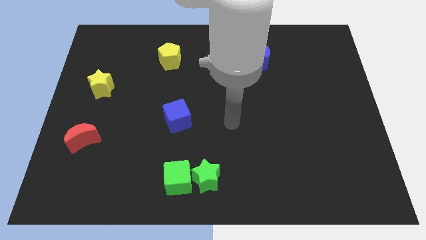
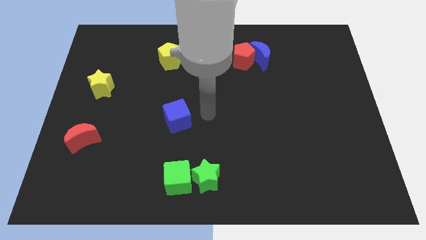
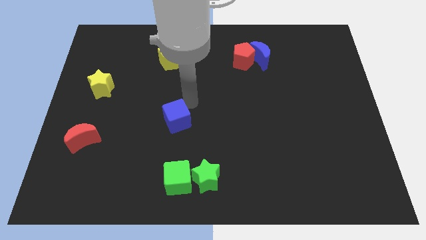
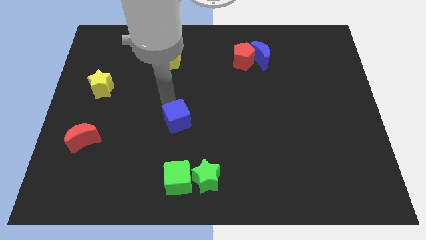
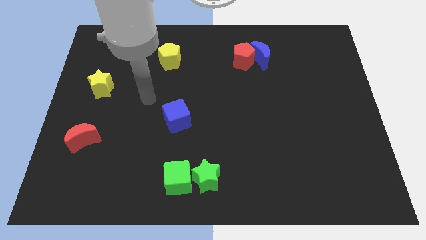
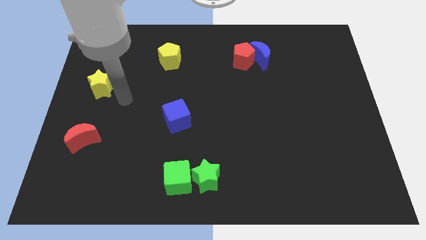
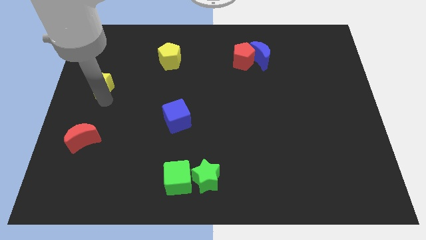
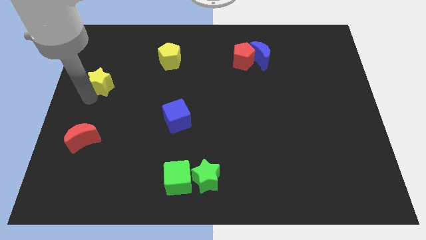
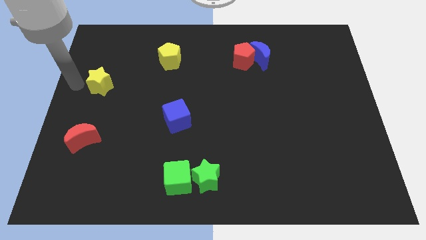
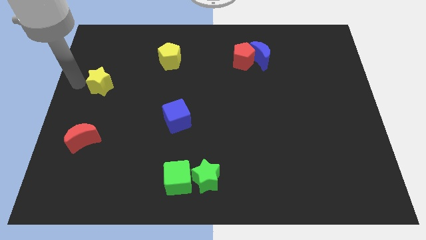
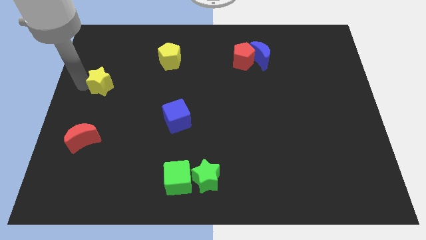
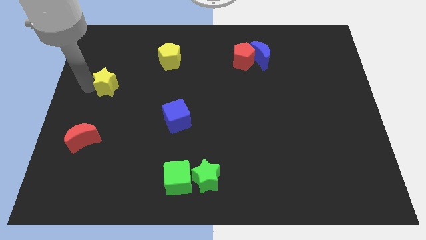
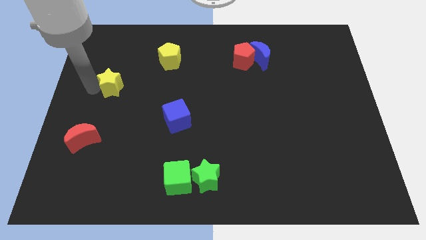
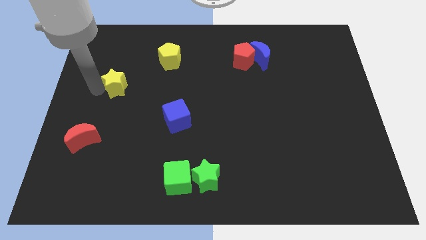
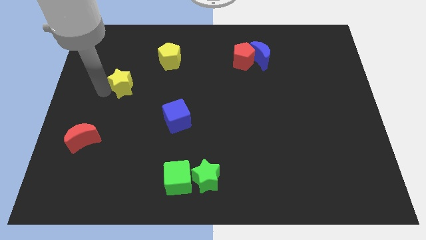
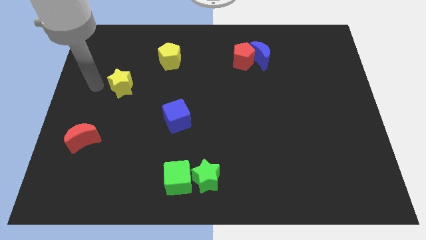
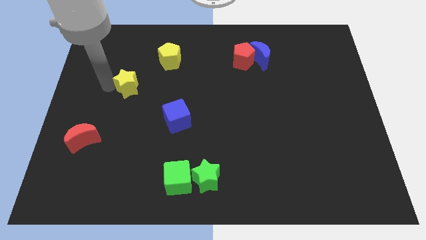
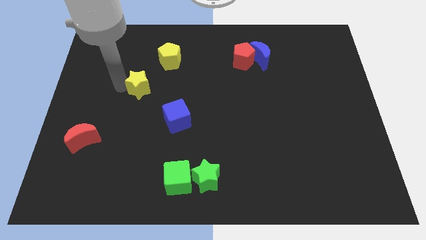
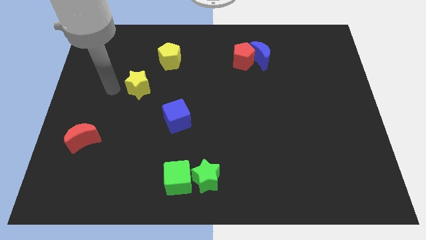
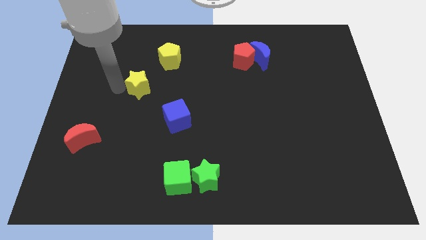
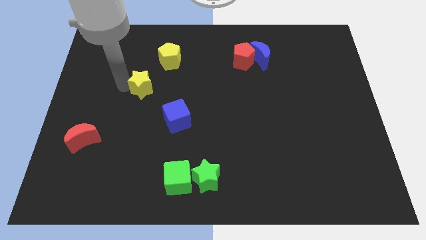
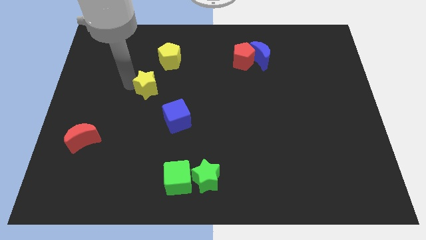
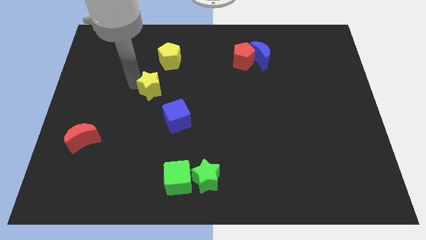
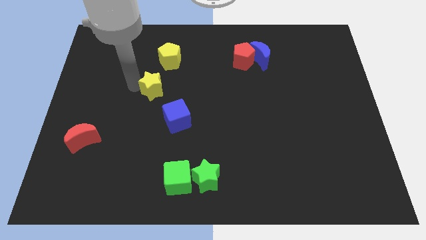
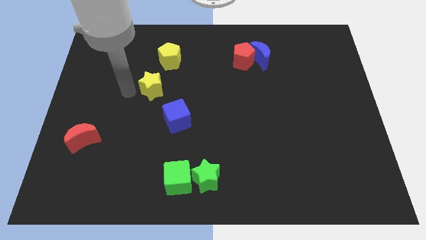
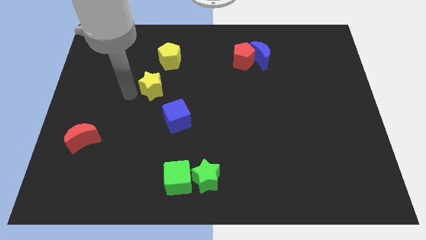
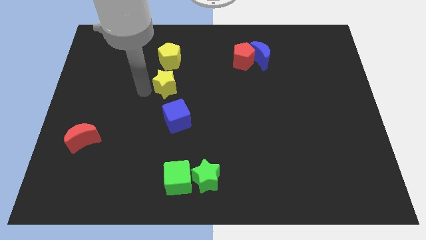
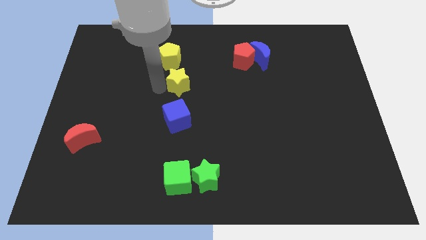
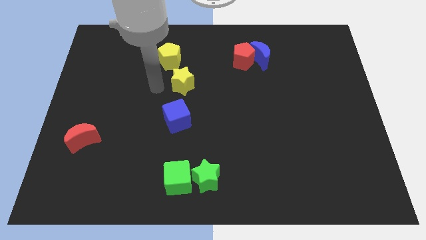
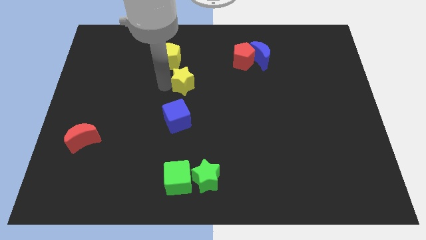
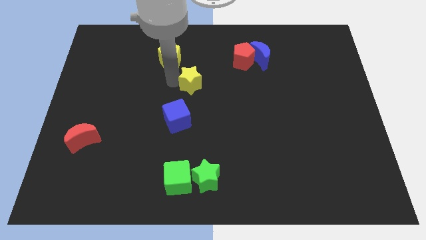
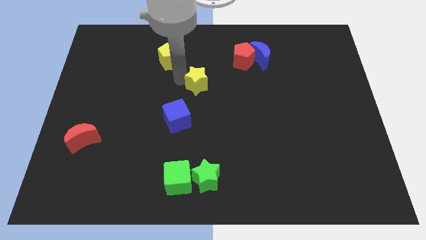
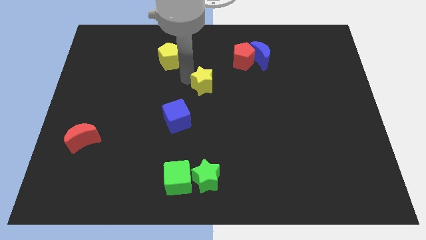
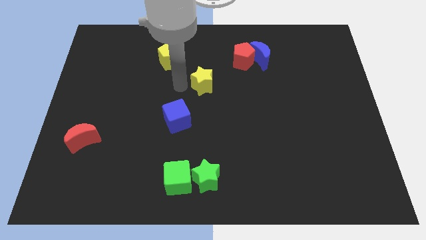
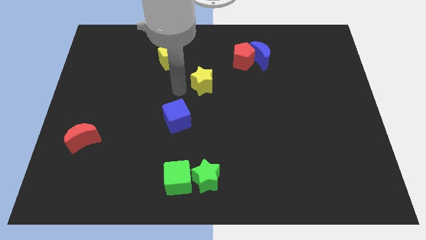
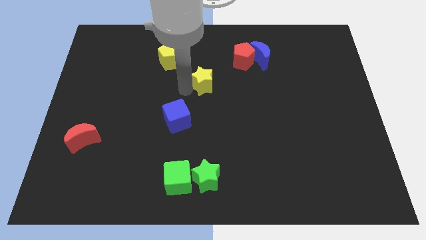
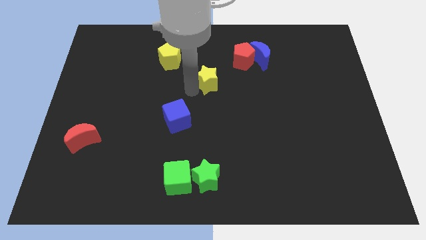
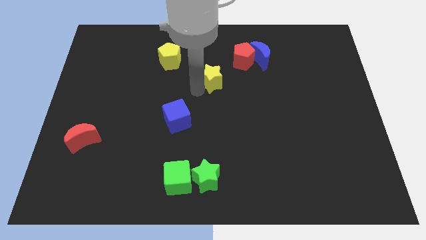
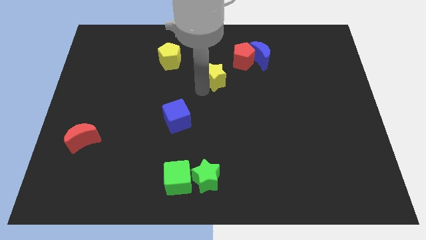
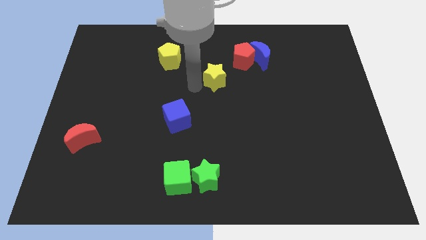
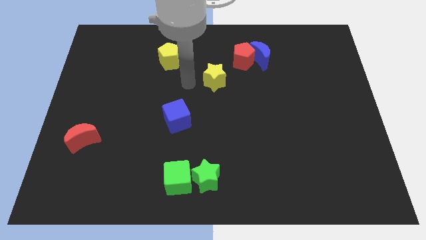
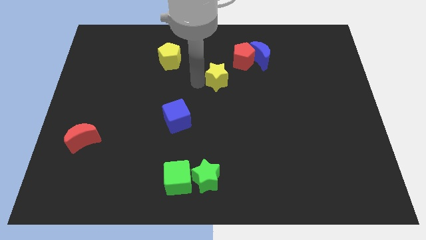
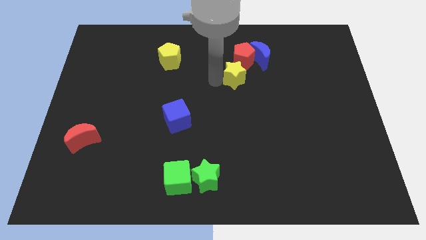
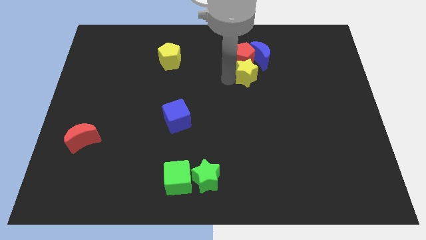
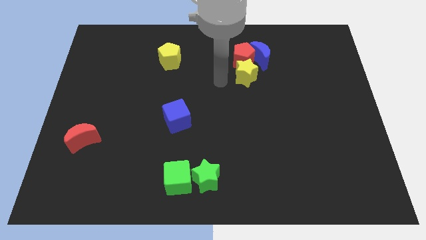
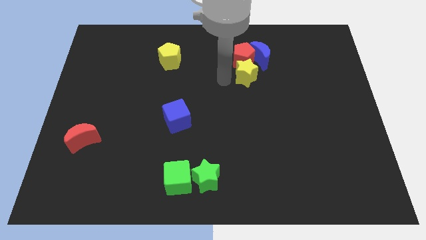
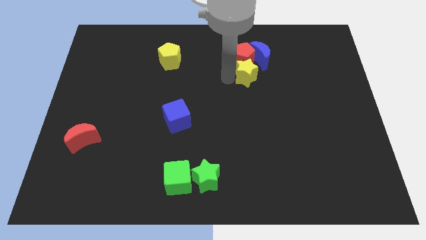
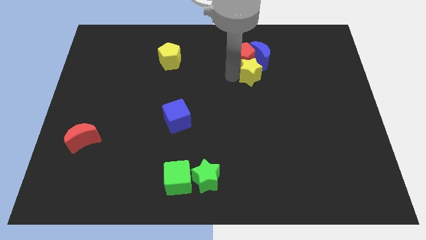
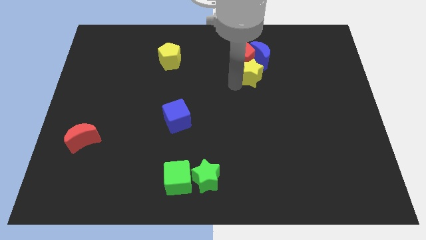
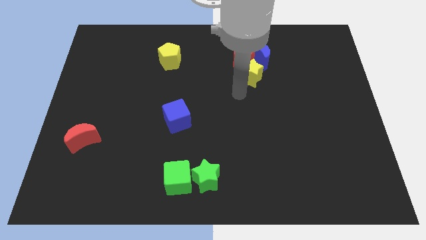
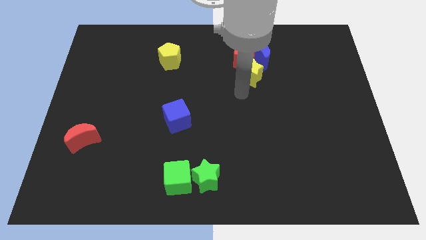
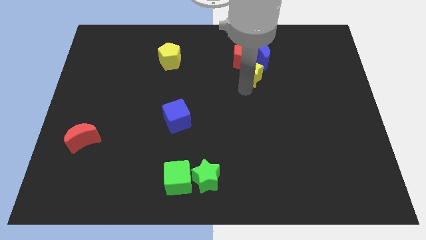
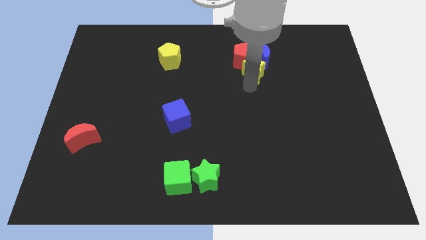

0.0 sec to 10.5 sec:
push the yellow star close to the blue moon

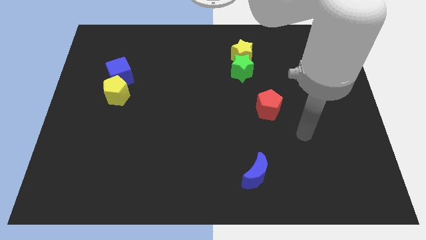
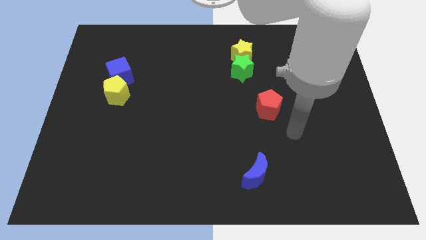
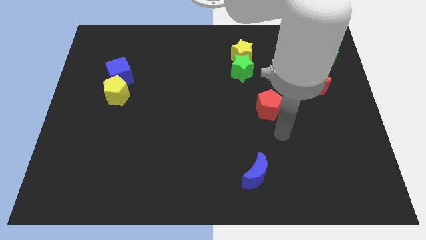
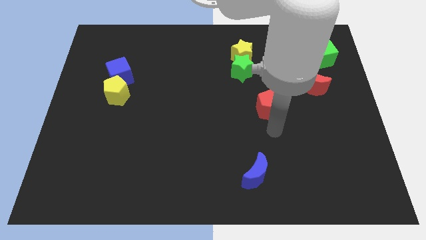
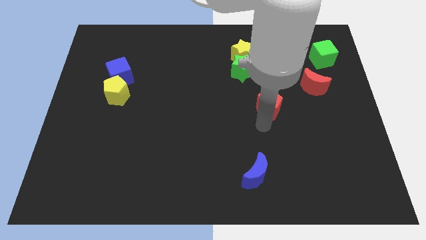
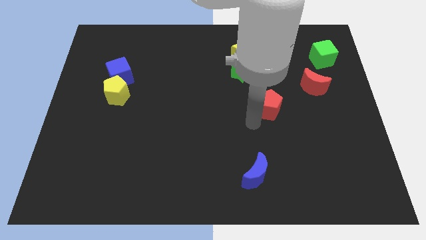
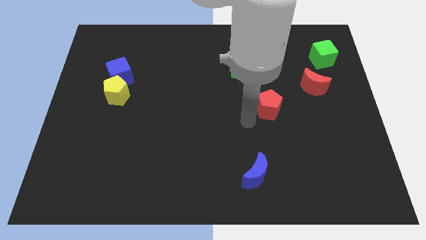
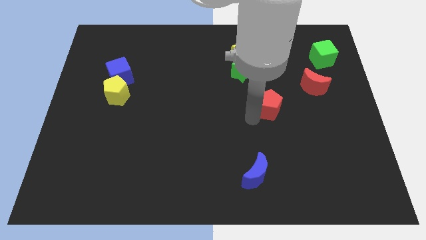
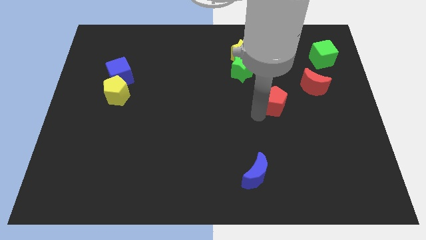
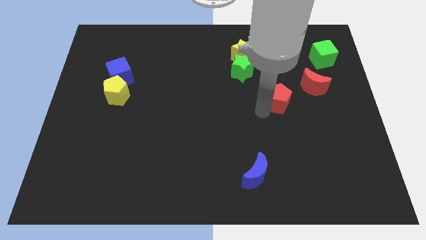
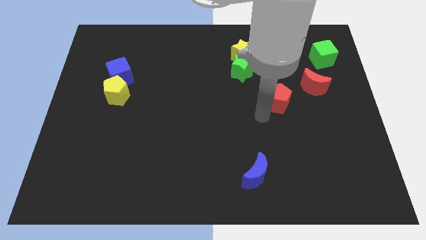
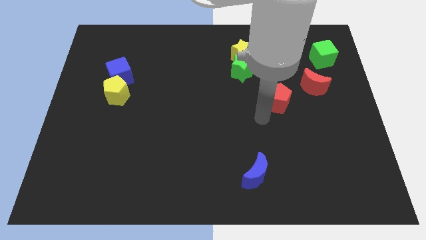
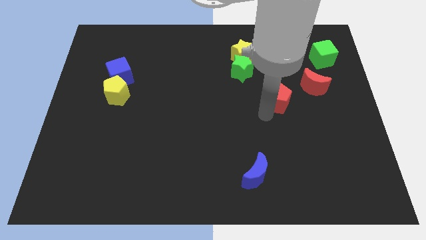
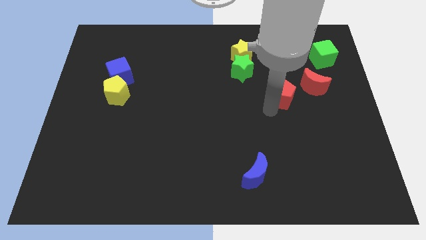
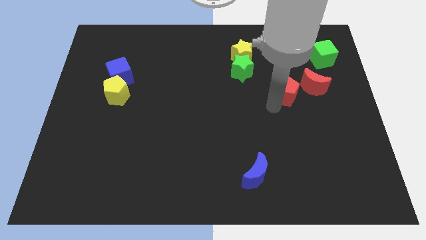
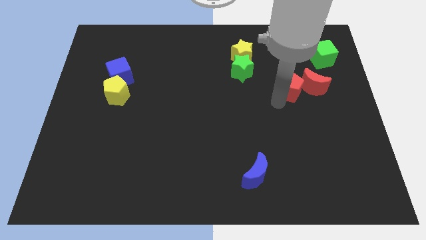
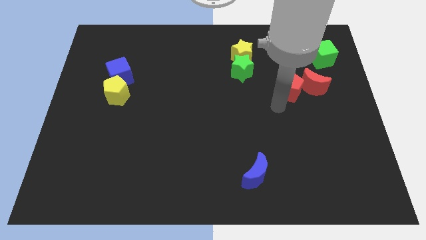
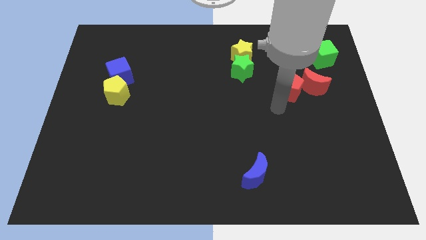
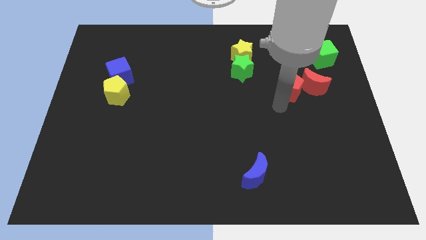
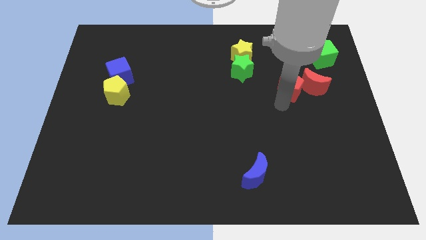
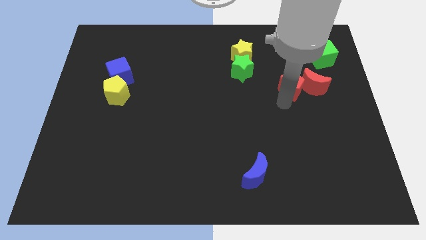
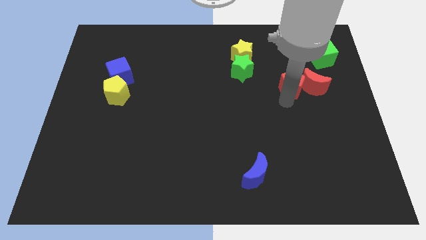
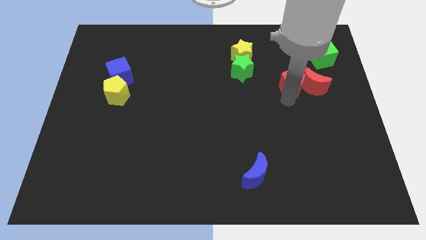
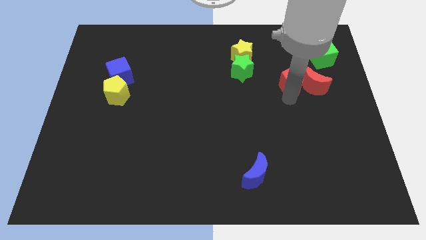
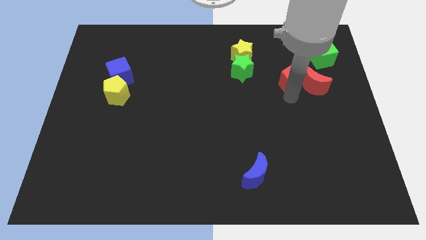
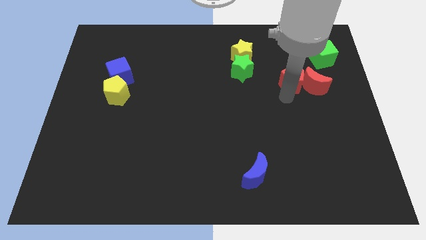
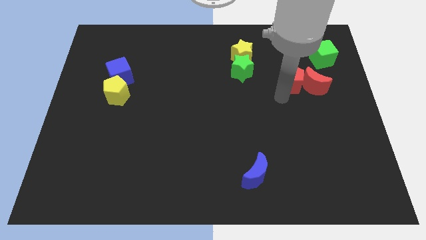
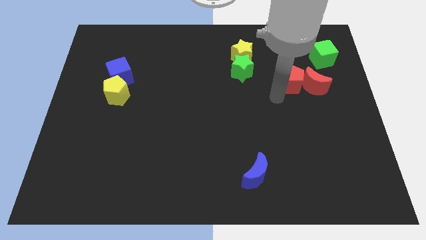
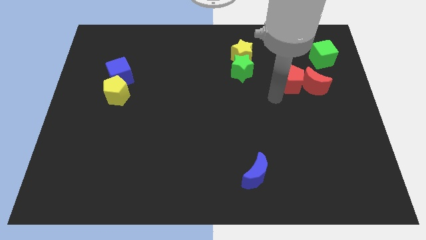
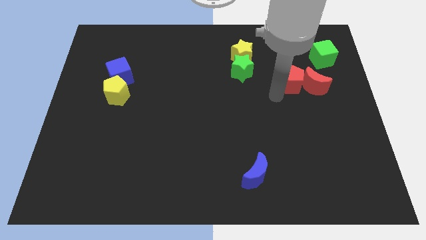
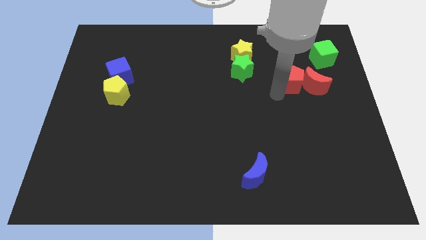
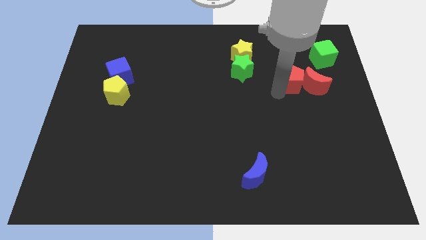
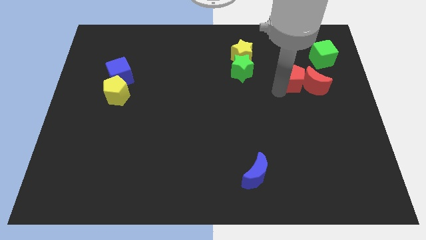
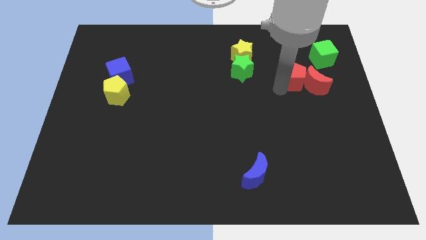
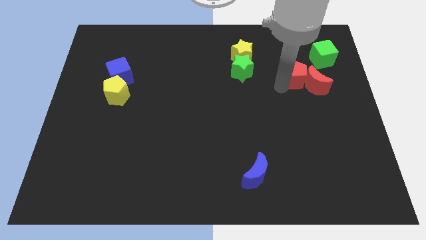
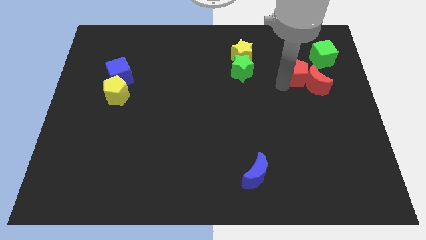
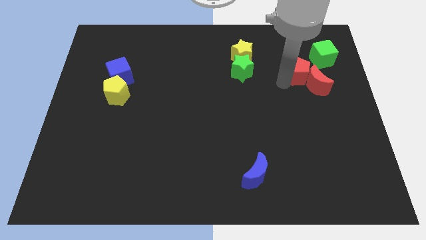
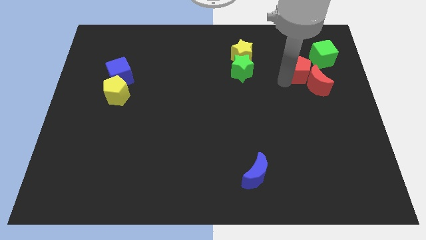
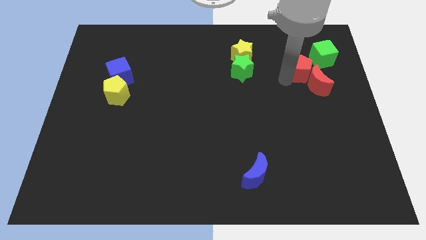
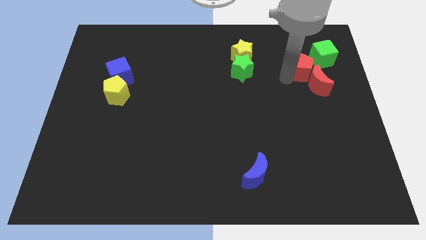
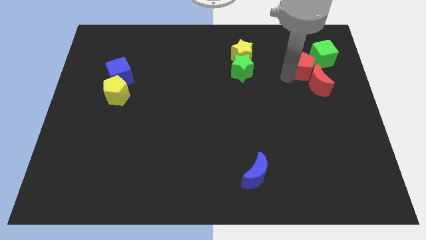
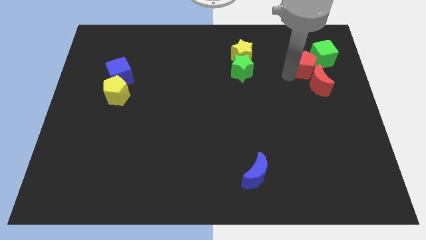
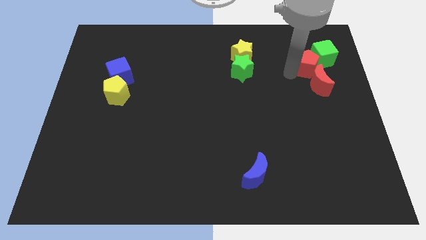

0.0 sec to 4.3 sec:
slide the red pentagon next to the green cube
